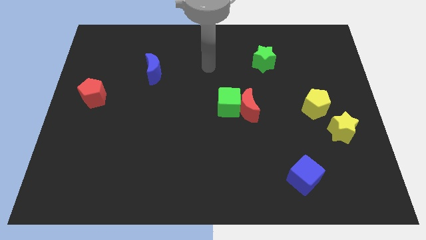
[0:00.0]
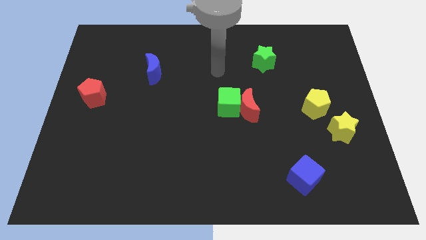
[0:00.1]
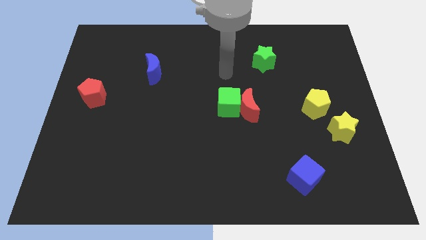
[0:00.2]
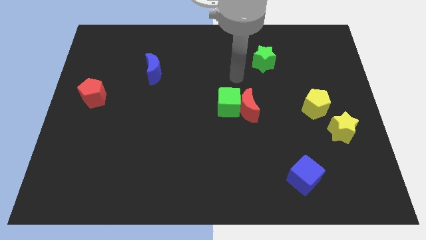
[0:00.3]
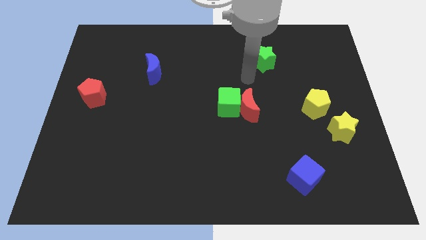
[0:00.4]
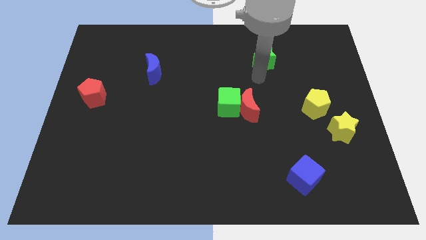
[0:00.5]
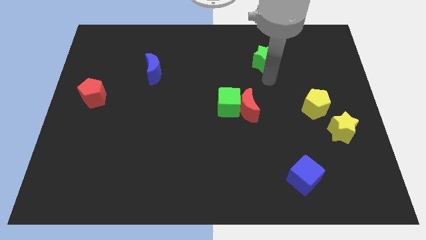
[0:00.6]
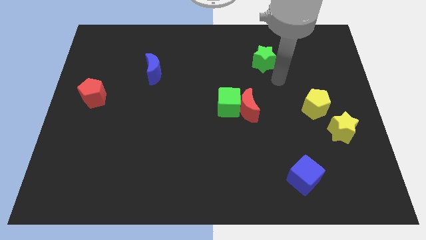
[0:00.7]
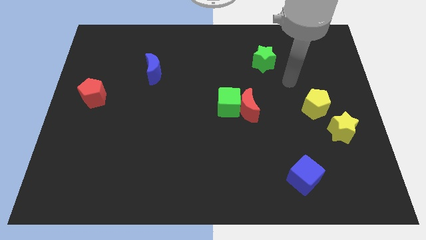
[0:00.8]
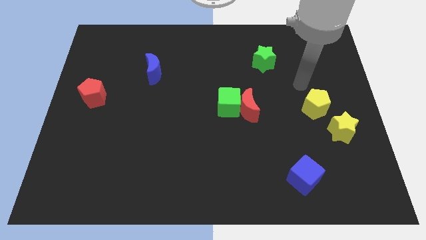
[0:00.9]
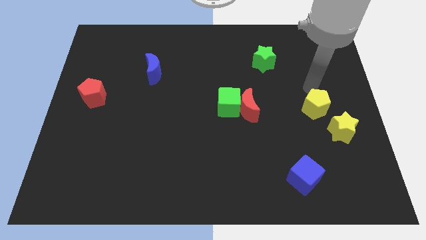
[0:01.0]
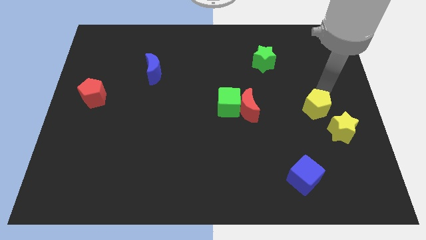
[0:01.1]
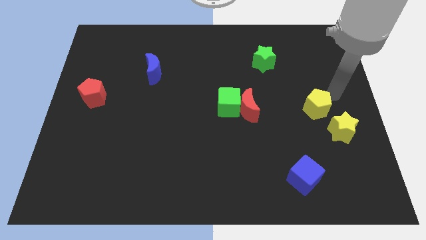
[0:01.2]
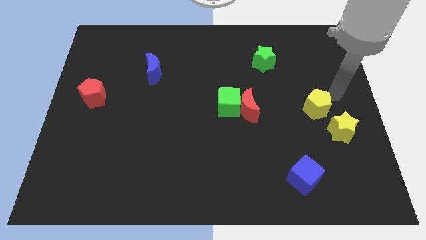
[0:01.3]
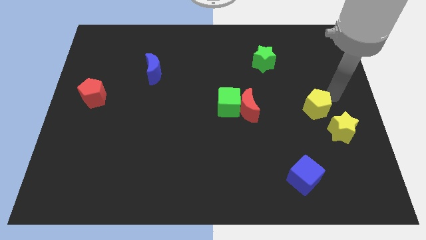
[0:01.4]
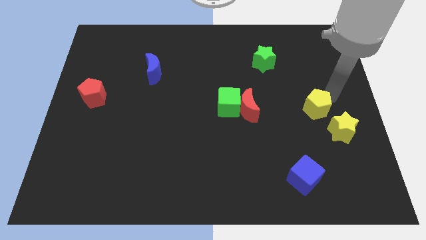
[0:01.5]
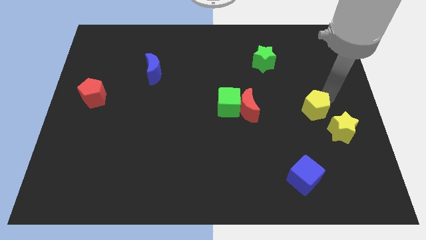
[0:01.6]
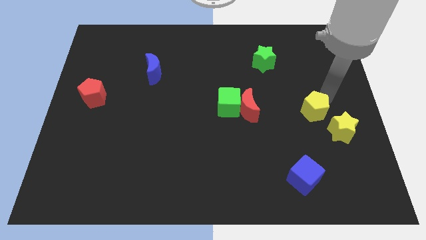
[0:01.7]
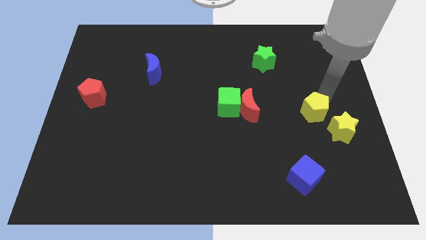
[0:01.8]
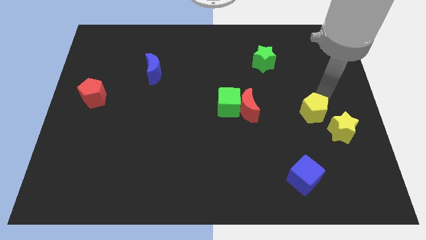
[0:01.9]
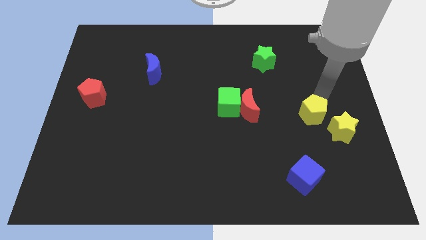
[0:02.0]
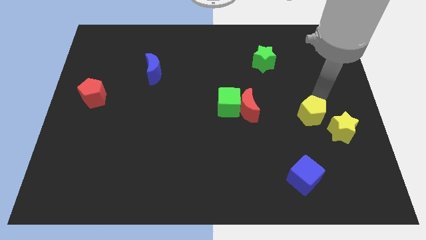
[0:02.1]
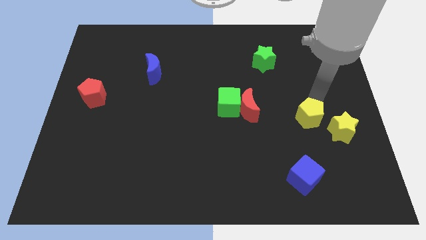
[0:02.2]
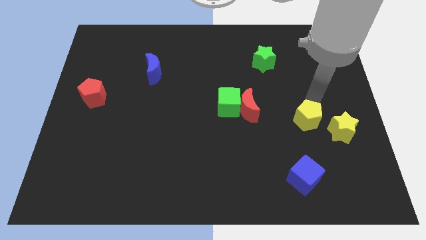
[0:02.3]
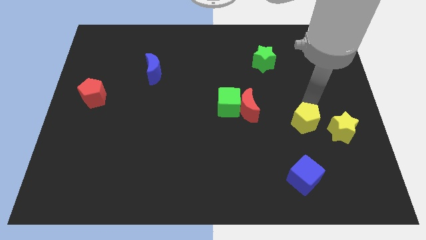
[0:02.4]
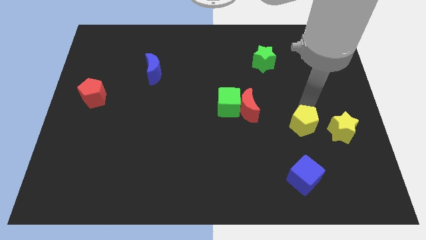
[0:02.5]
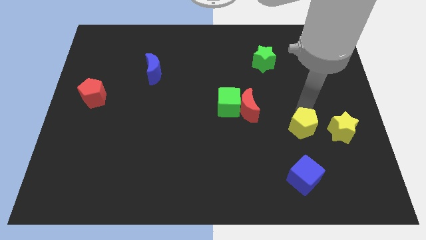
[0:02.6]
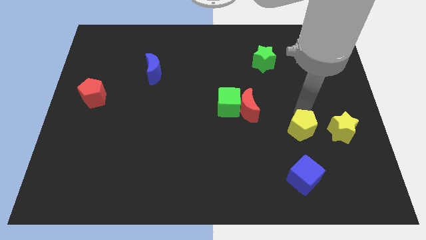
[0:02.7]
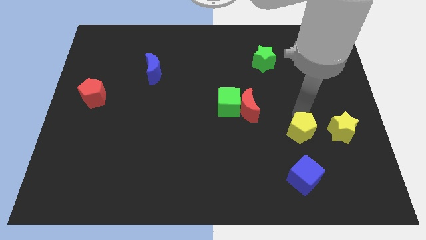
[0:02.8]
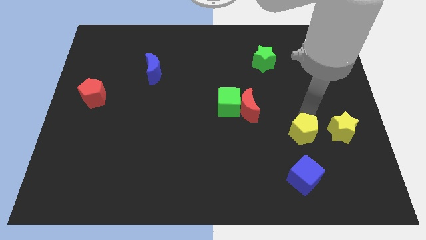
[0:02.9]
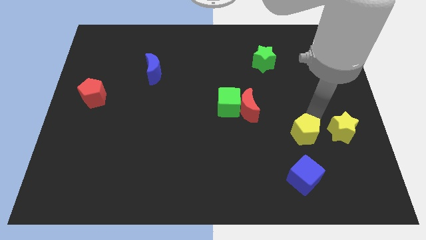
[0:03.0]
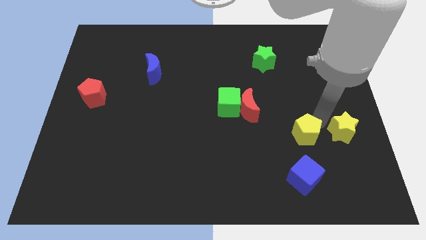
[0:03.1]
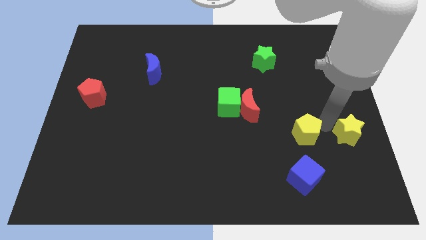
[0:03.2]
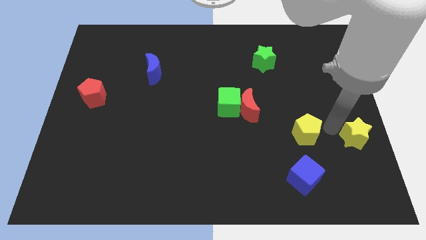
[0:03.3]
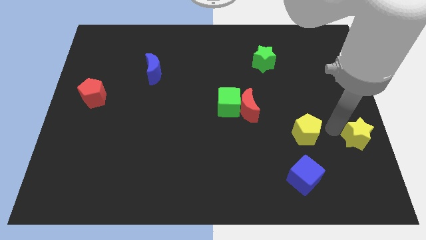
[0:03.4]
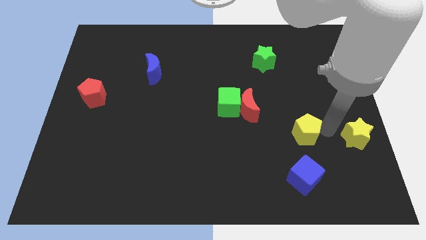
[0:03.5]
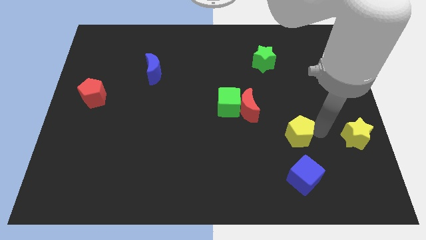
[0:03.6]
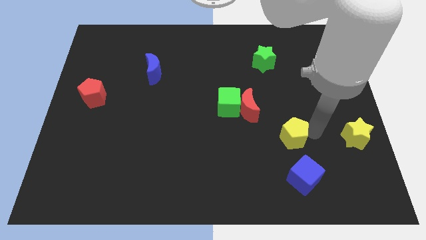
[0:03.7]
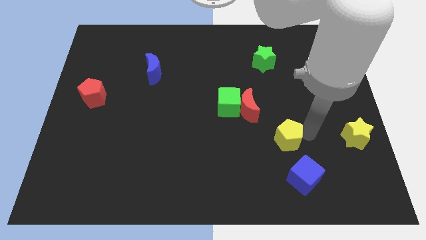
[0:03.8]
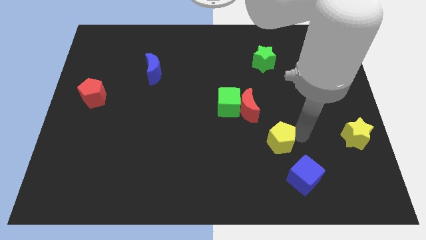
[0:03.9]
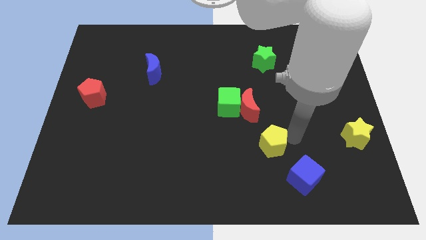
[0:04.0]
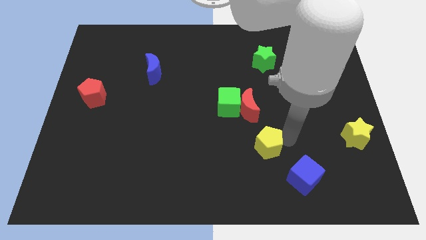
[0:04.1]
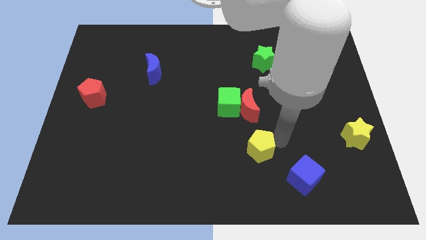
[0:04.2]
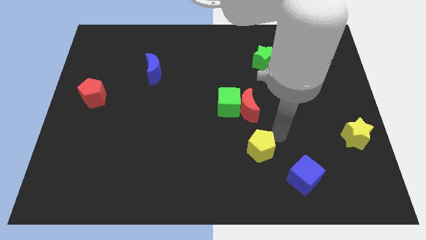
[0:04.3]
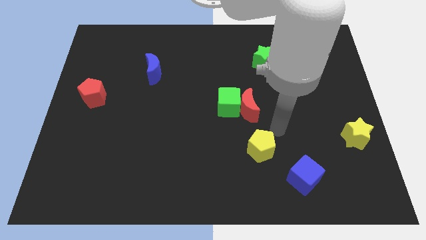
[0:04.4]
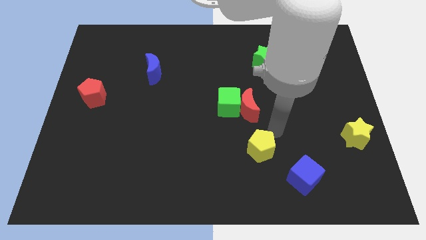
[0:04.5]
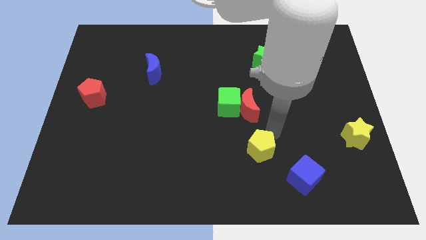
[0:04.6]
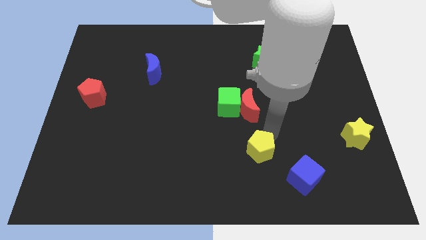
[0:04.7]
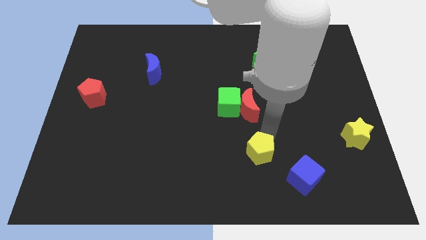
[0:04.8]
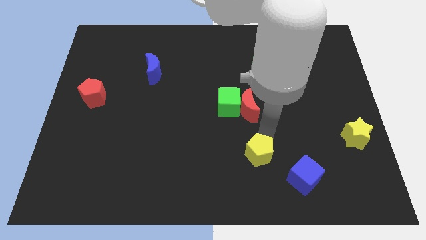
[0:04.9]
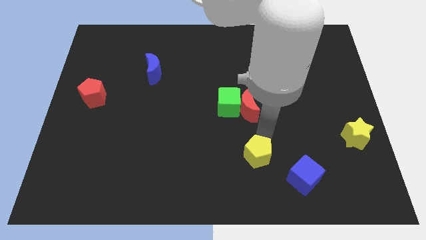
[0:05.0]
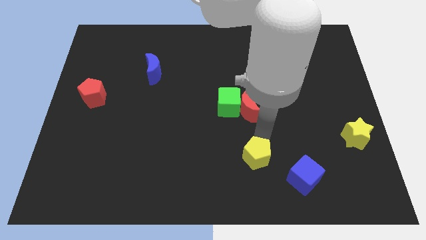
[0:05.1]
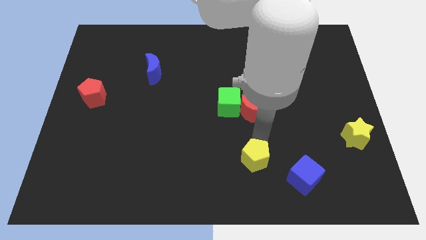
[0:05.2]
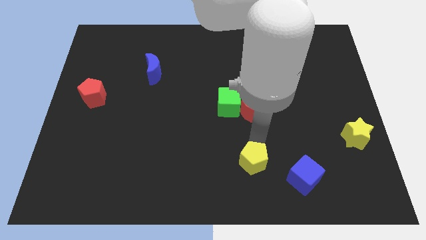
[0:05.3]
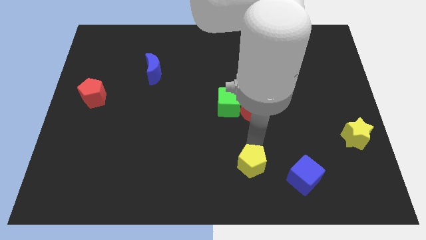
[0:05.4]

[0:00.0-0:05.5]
put the yellow pentagon to the bottom

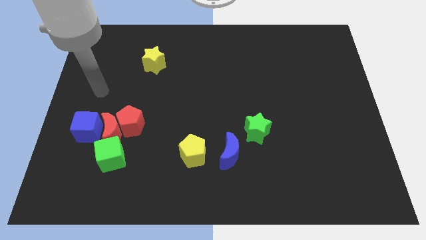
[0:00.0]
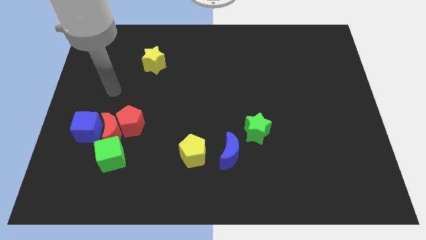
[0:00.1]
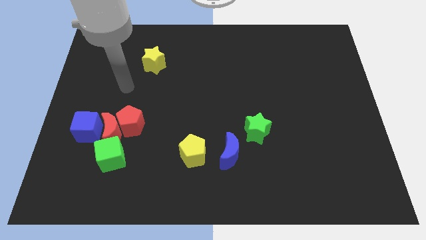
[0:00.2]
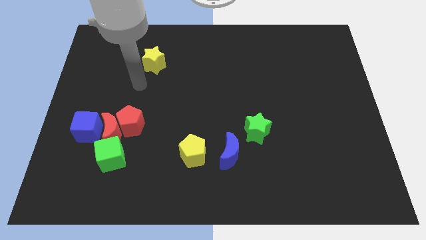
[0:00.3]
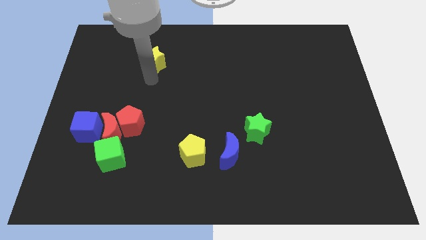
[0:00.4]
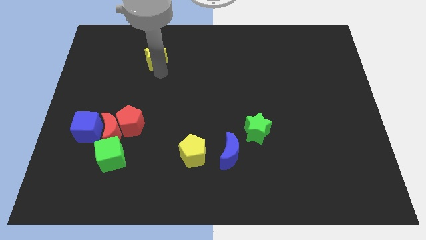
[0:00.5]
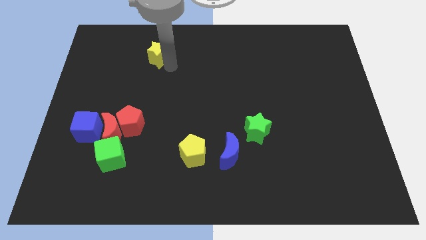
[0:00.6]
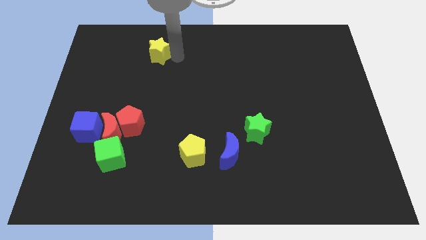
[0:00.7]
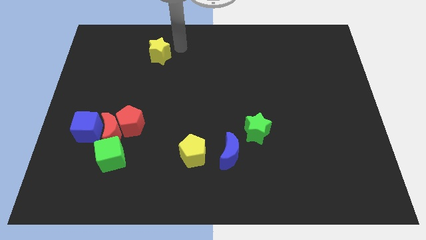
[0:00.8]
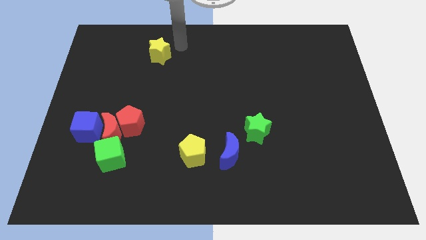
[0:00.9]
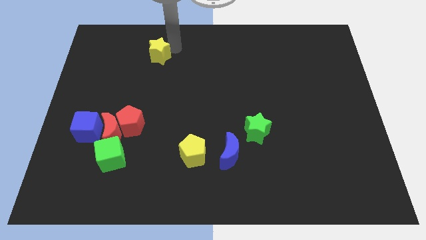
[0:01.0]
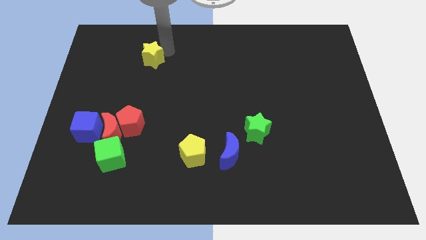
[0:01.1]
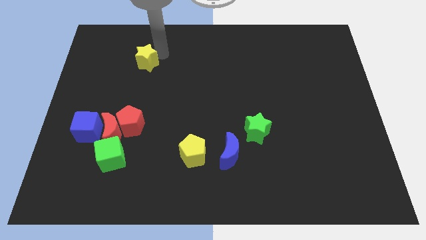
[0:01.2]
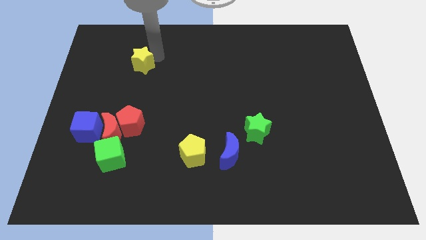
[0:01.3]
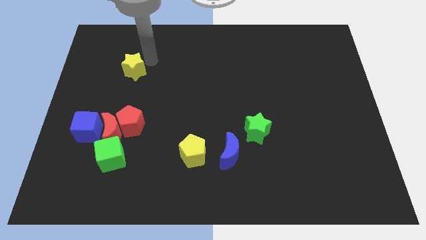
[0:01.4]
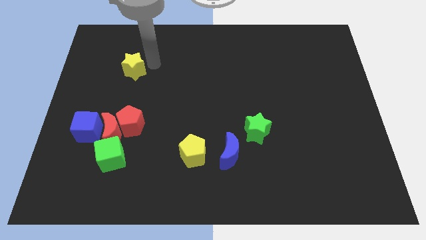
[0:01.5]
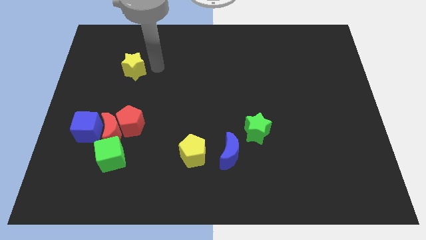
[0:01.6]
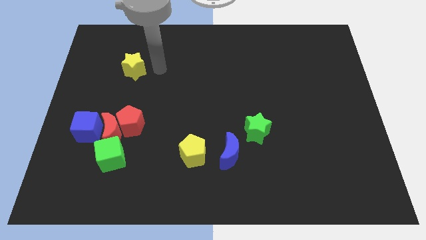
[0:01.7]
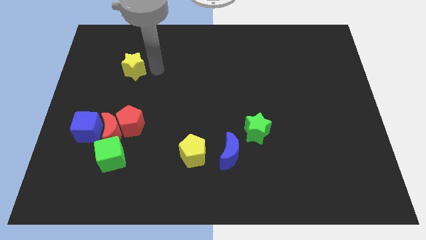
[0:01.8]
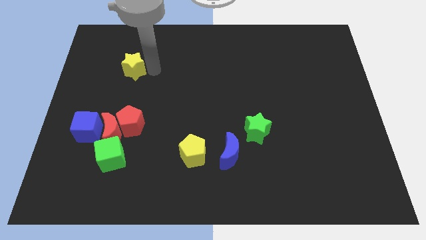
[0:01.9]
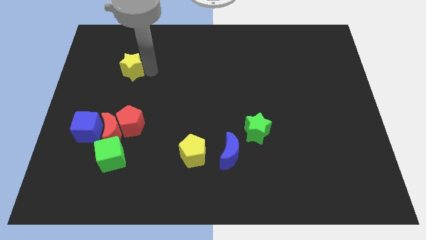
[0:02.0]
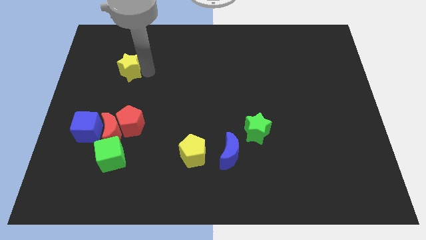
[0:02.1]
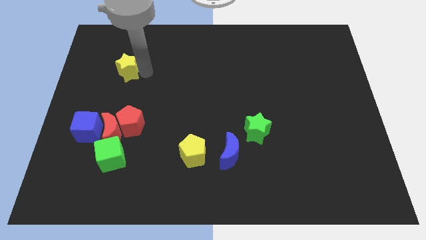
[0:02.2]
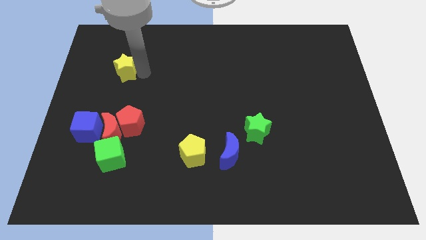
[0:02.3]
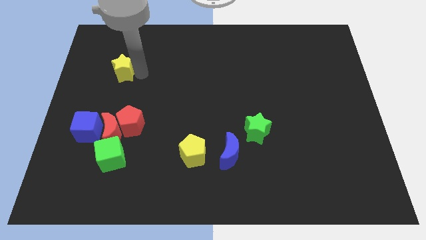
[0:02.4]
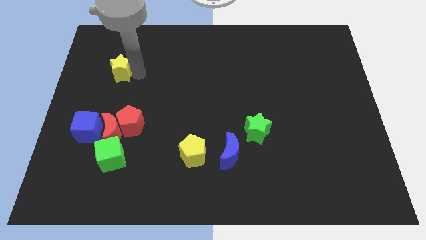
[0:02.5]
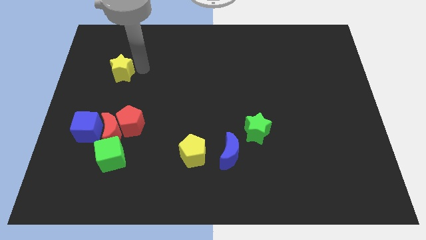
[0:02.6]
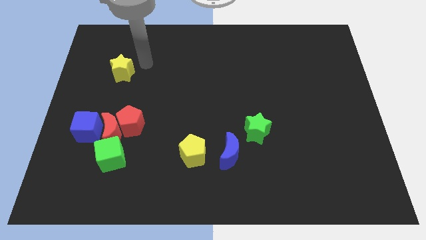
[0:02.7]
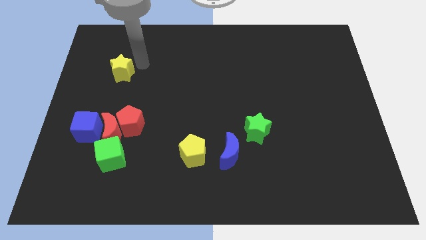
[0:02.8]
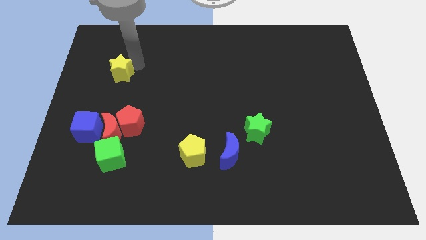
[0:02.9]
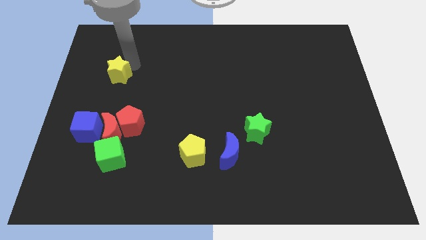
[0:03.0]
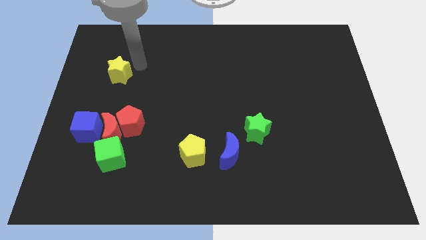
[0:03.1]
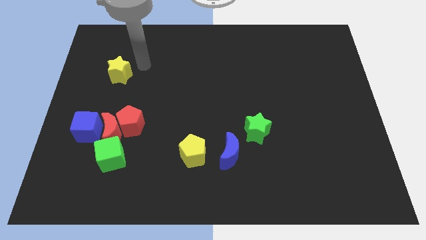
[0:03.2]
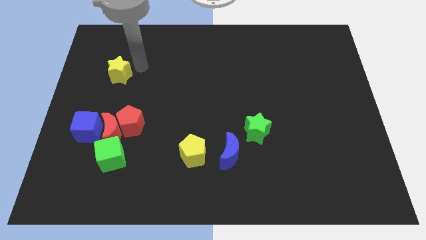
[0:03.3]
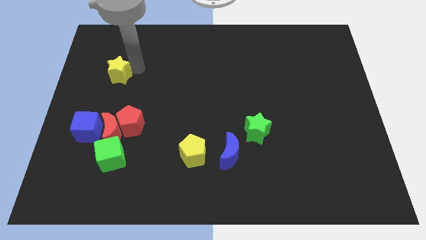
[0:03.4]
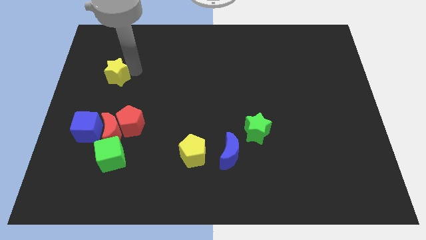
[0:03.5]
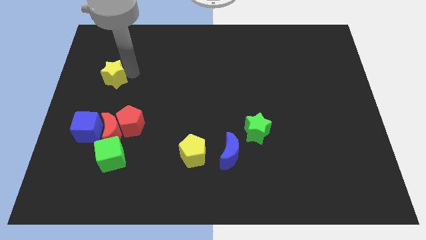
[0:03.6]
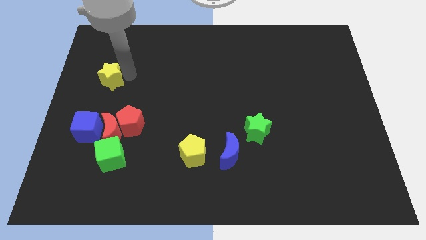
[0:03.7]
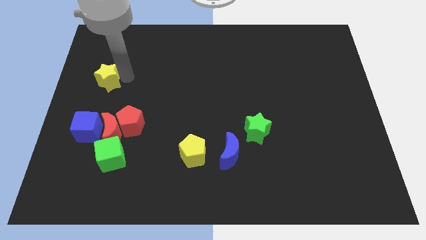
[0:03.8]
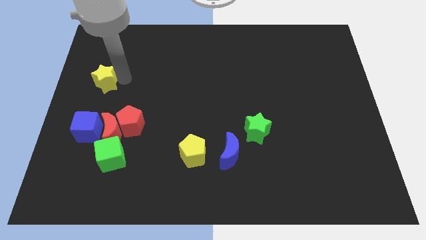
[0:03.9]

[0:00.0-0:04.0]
put the yellow star to the left side
